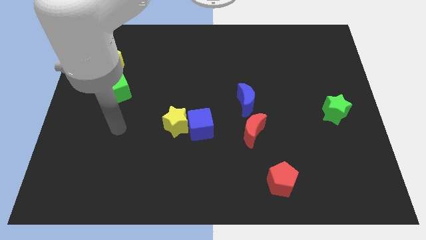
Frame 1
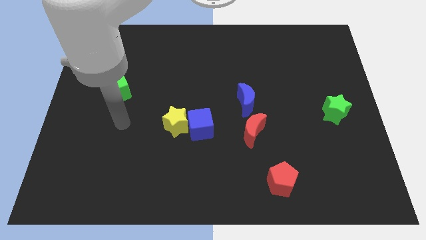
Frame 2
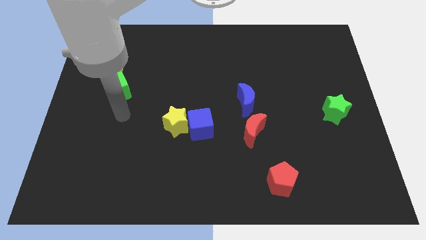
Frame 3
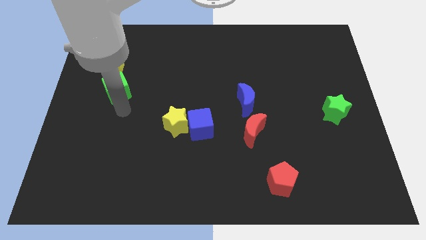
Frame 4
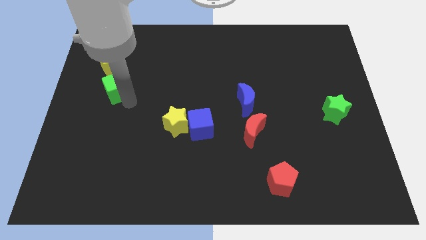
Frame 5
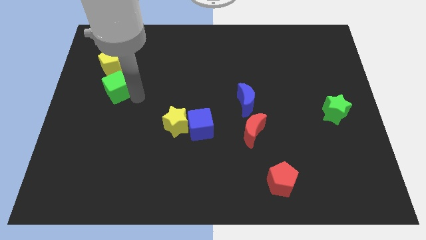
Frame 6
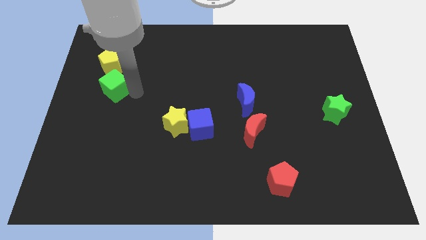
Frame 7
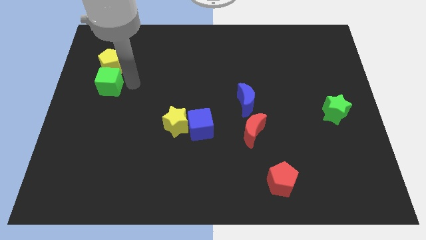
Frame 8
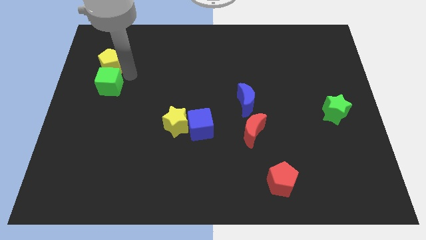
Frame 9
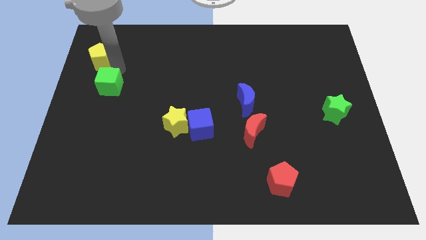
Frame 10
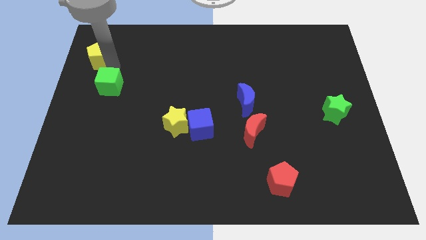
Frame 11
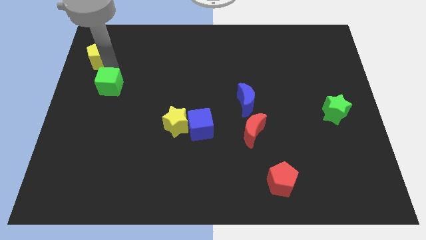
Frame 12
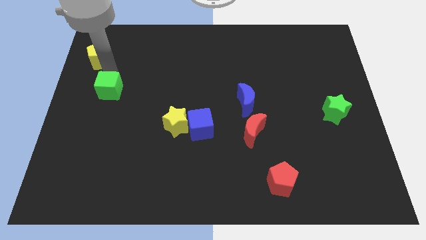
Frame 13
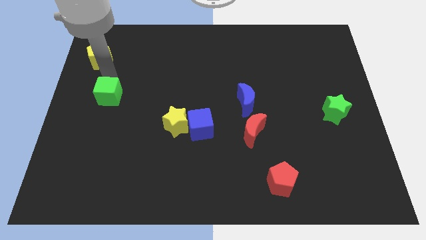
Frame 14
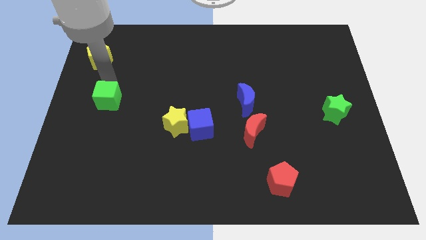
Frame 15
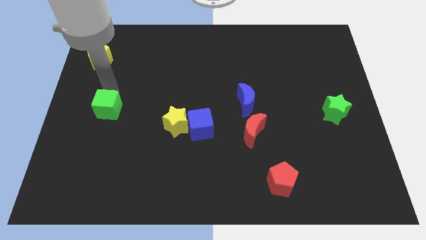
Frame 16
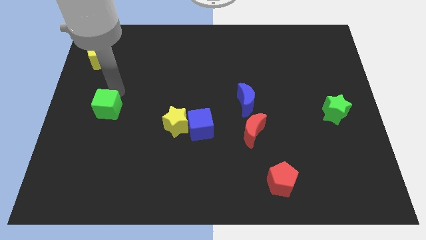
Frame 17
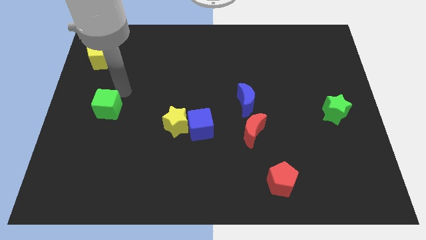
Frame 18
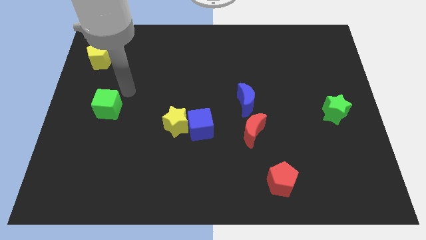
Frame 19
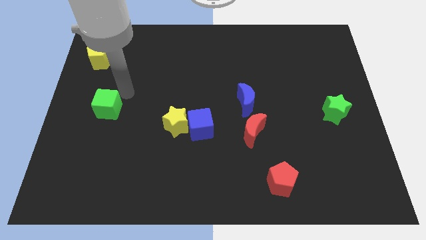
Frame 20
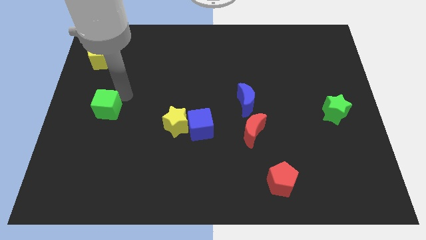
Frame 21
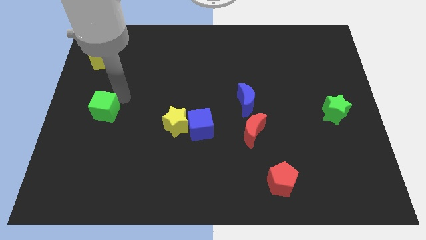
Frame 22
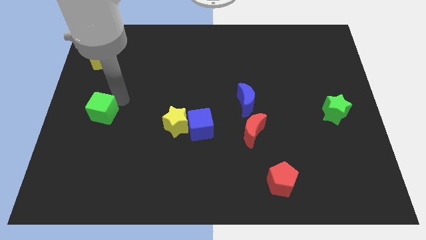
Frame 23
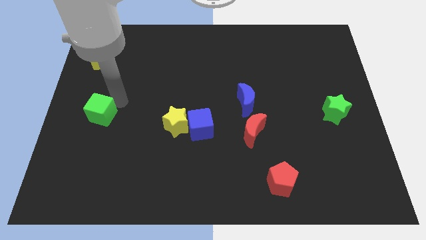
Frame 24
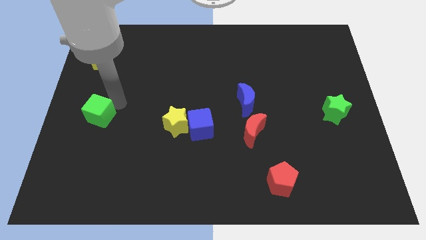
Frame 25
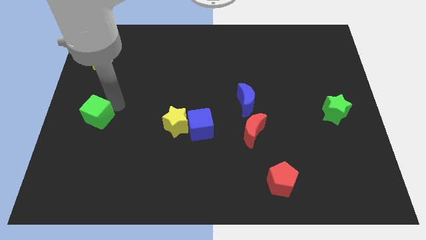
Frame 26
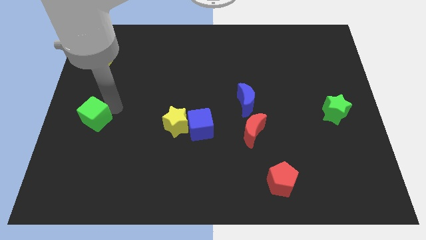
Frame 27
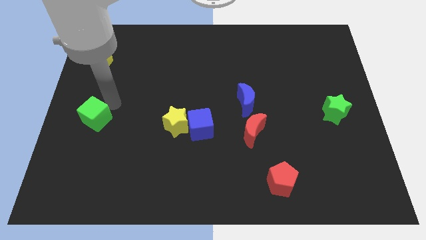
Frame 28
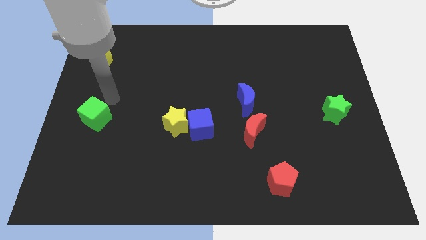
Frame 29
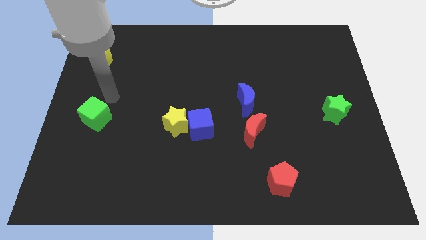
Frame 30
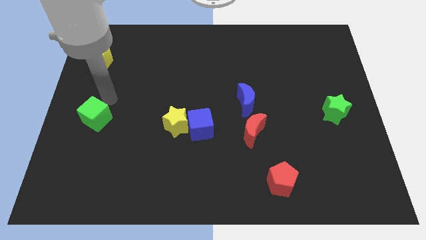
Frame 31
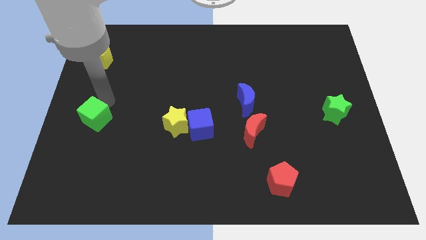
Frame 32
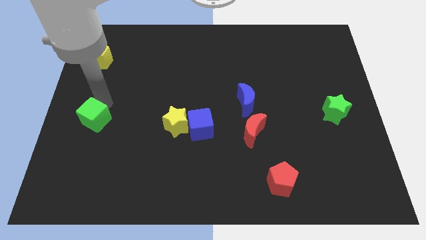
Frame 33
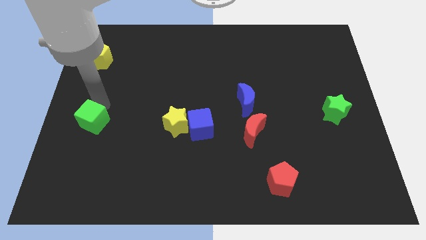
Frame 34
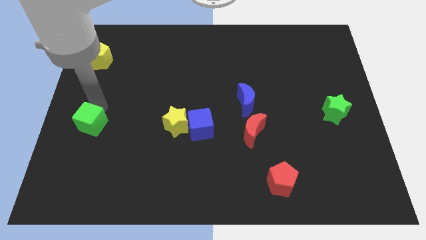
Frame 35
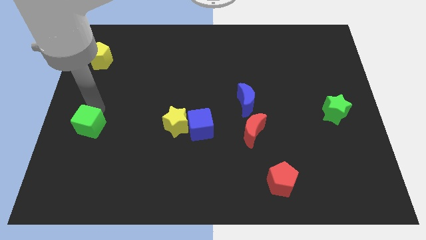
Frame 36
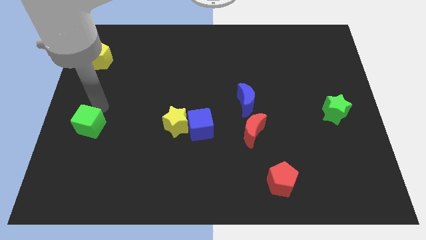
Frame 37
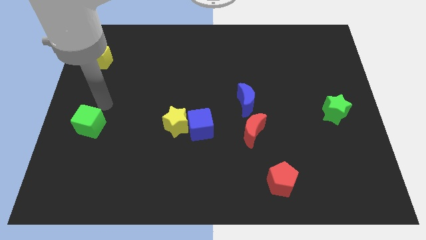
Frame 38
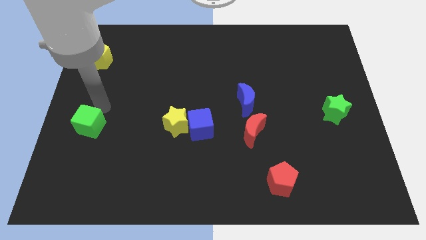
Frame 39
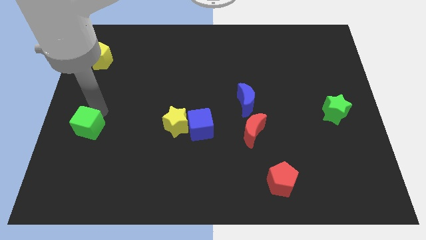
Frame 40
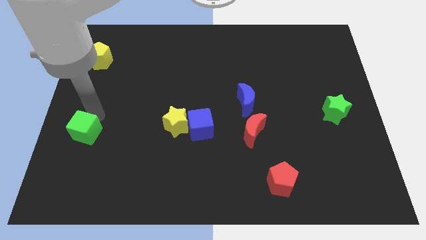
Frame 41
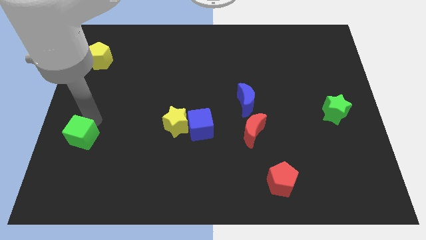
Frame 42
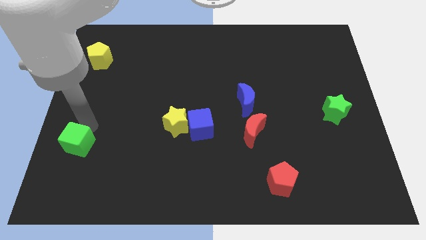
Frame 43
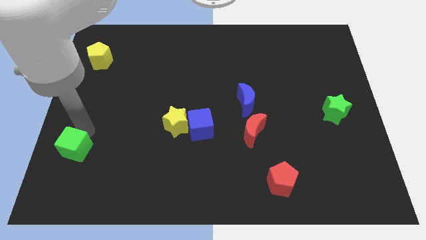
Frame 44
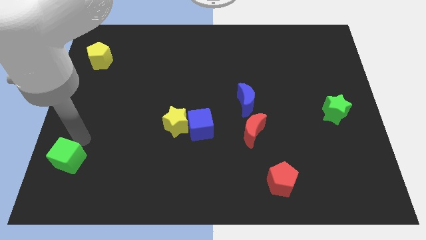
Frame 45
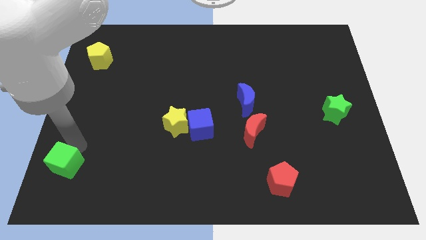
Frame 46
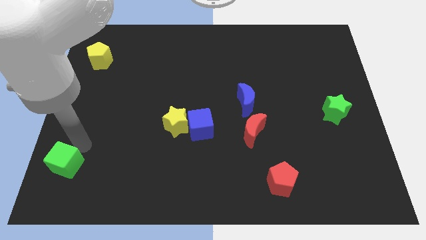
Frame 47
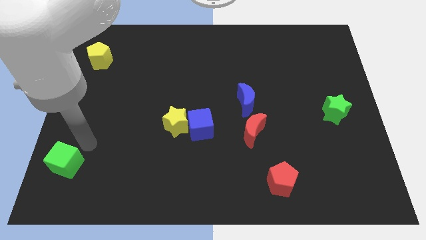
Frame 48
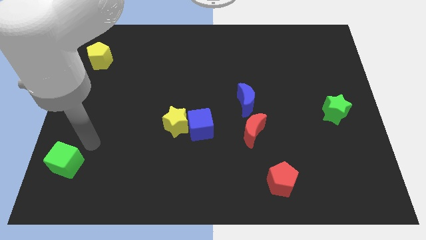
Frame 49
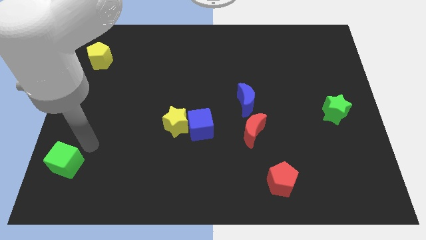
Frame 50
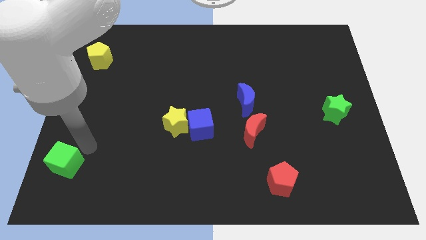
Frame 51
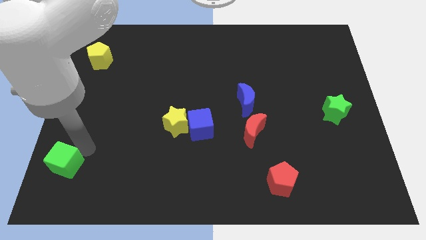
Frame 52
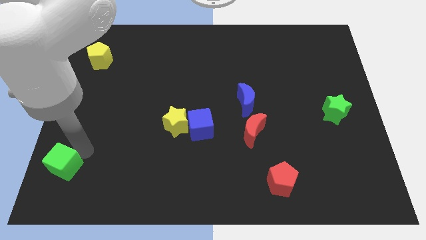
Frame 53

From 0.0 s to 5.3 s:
slide the green cube to the bottom left of the board

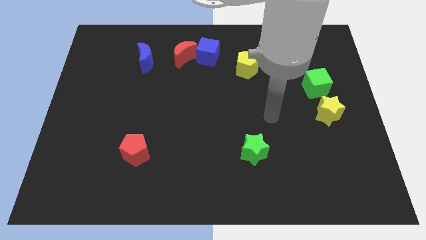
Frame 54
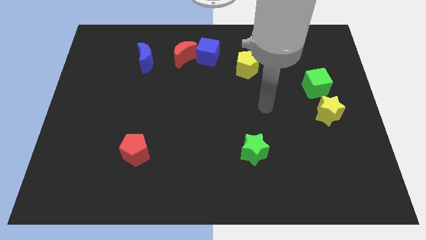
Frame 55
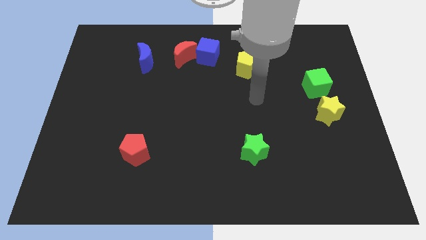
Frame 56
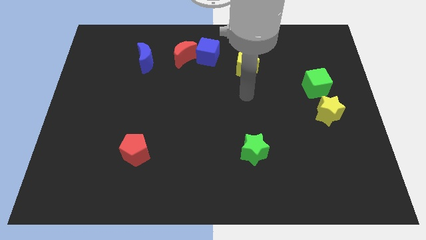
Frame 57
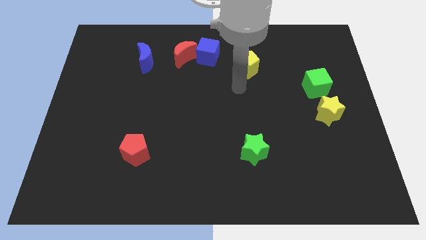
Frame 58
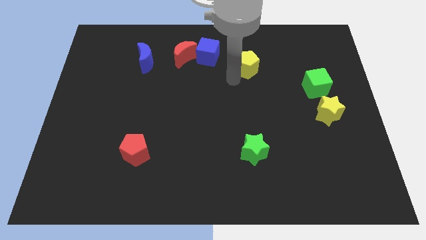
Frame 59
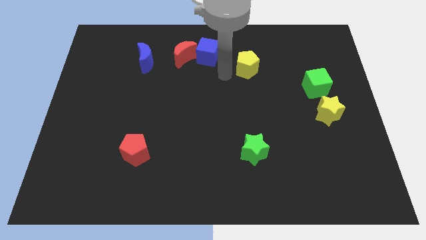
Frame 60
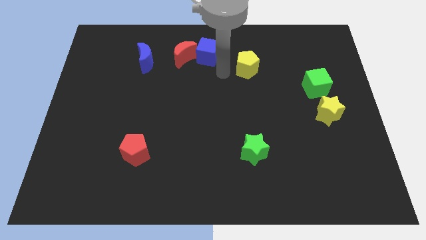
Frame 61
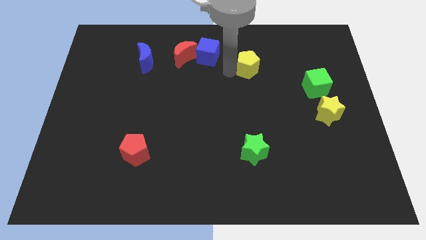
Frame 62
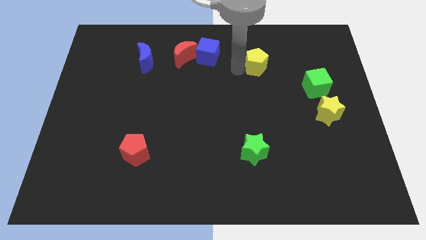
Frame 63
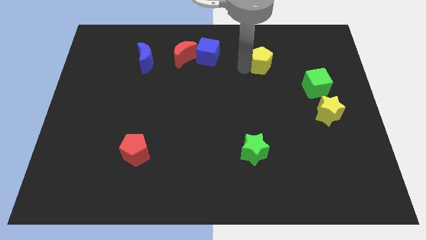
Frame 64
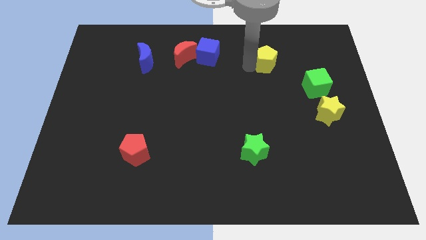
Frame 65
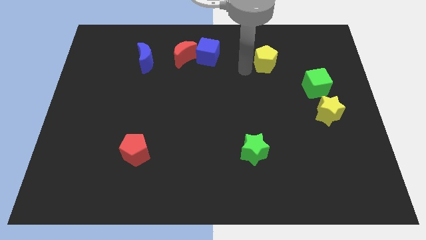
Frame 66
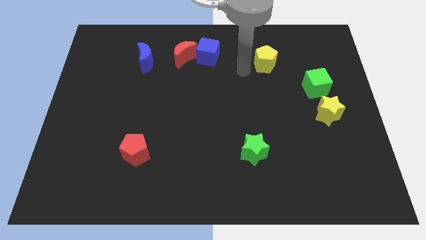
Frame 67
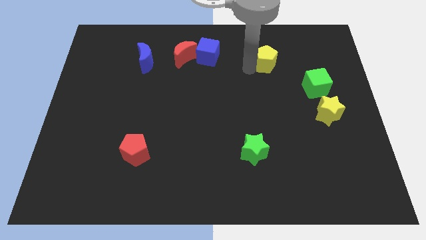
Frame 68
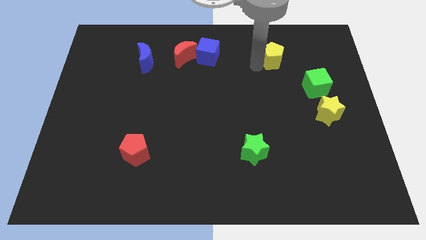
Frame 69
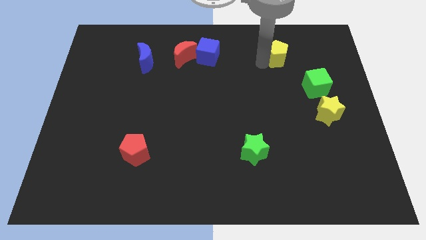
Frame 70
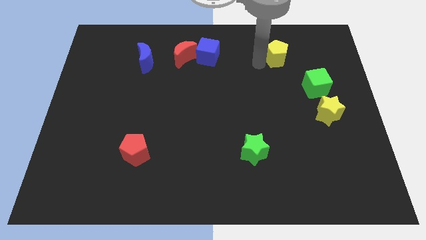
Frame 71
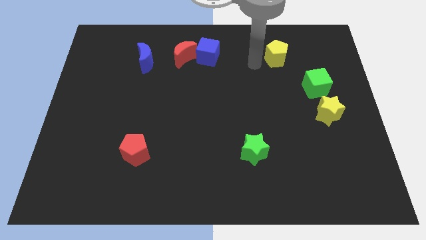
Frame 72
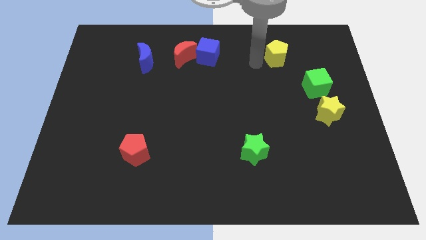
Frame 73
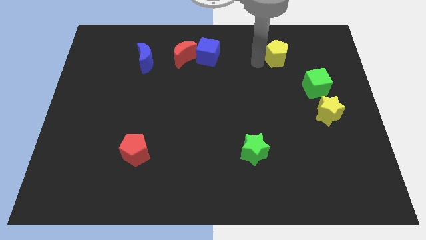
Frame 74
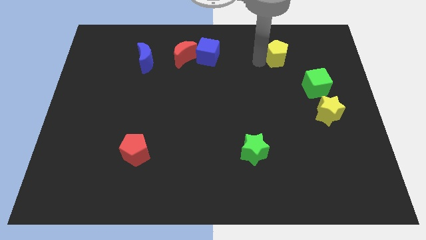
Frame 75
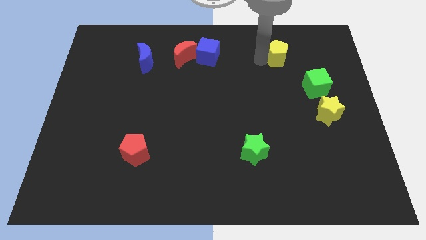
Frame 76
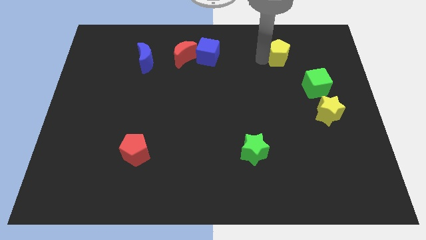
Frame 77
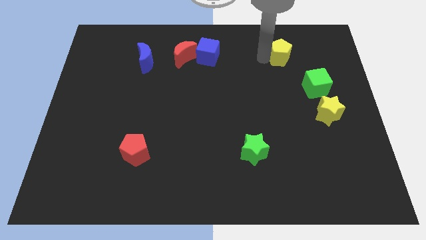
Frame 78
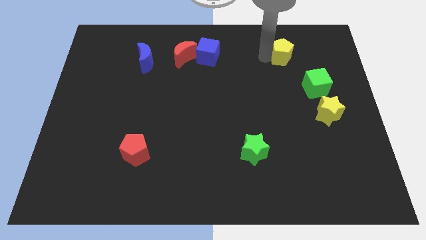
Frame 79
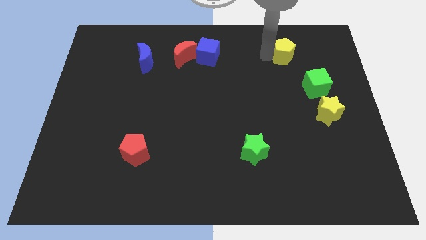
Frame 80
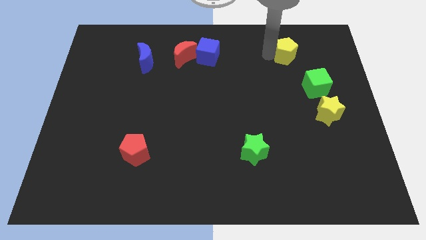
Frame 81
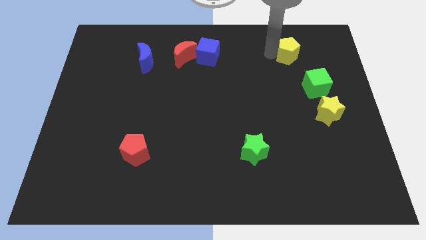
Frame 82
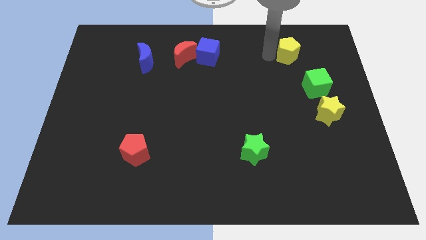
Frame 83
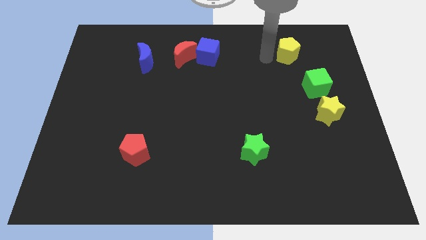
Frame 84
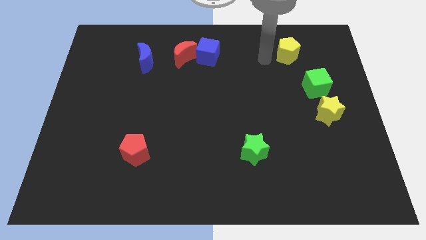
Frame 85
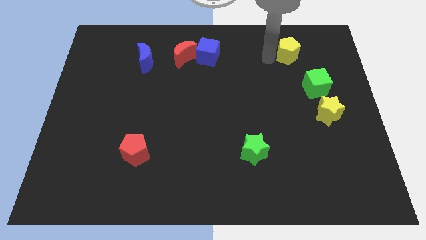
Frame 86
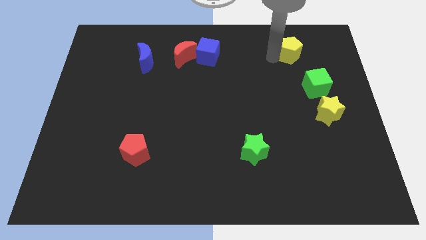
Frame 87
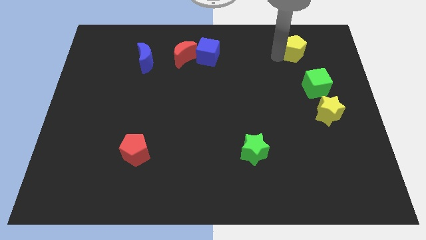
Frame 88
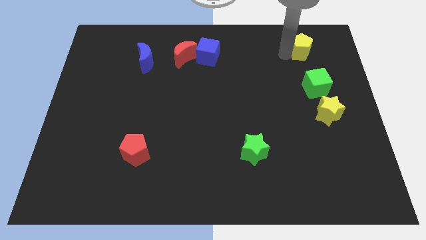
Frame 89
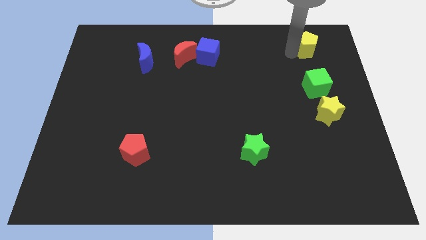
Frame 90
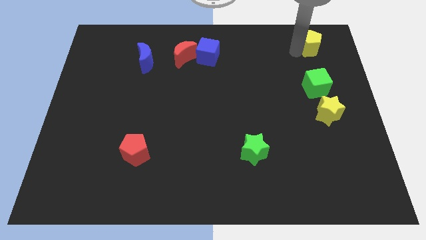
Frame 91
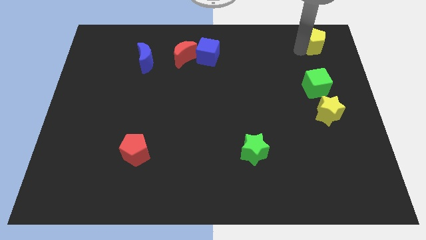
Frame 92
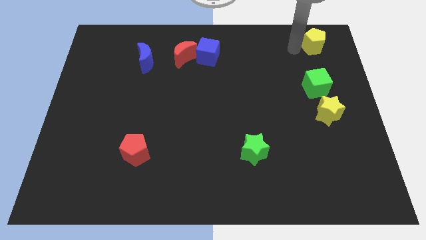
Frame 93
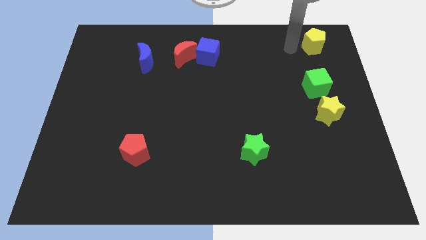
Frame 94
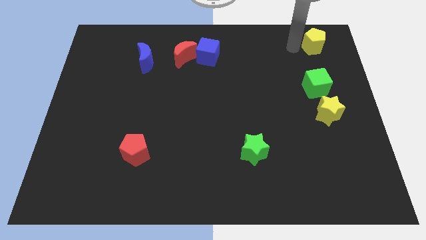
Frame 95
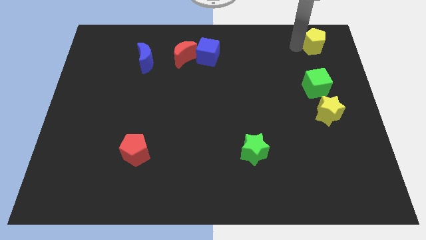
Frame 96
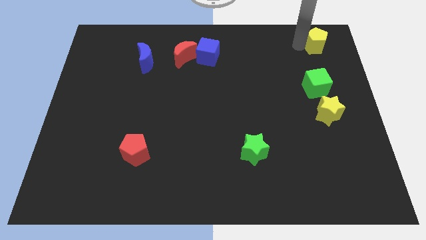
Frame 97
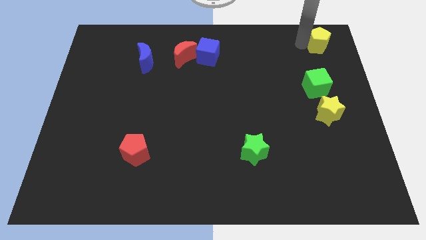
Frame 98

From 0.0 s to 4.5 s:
put the yellow pentagon to the upper right corner
